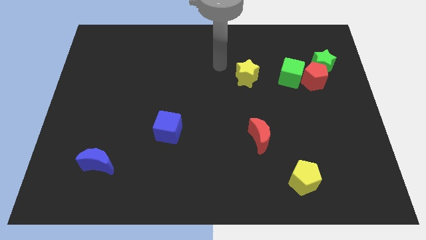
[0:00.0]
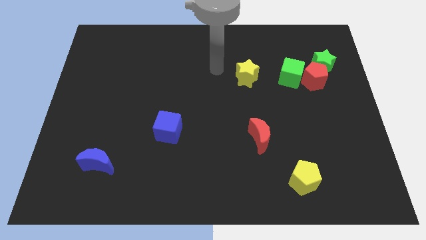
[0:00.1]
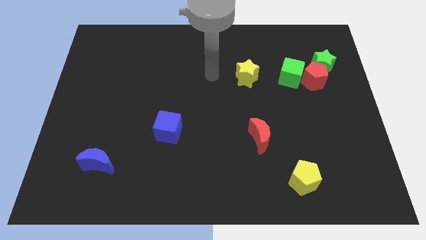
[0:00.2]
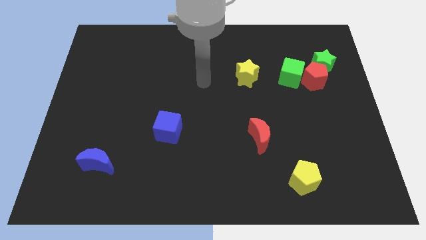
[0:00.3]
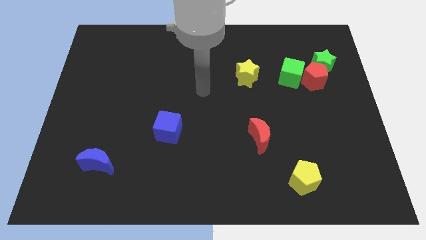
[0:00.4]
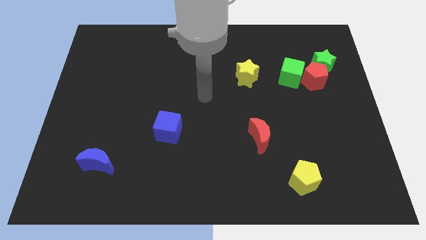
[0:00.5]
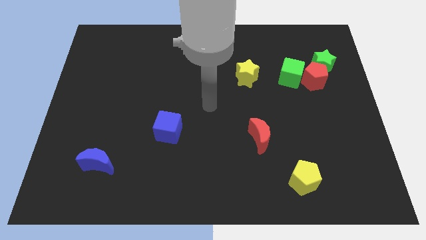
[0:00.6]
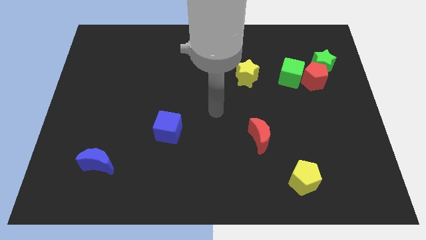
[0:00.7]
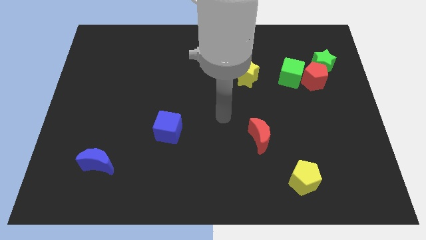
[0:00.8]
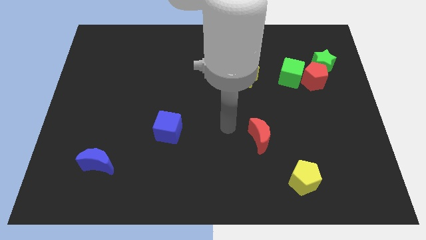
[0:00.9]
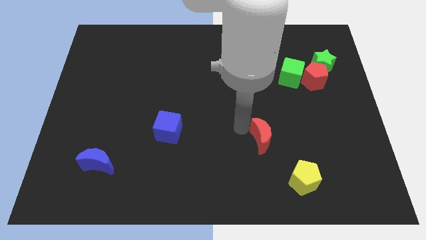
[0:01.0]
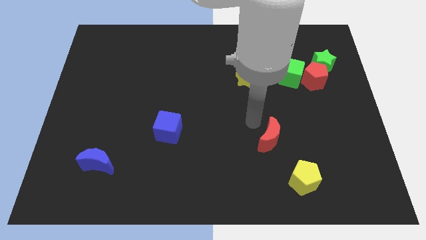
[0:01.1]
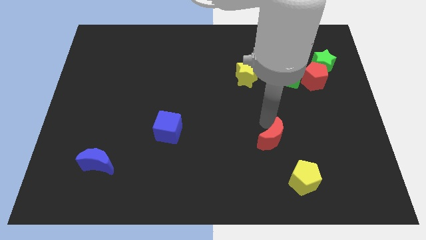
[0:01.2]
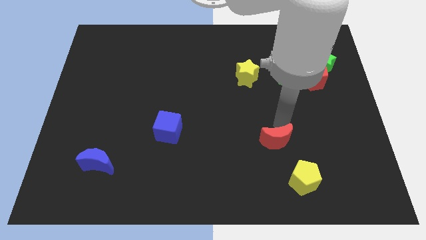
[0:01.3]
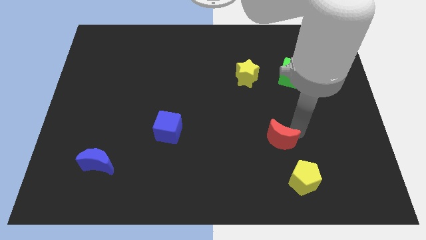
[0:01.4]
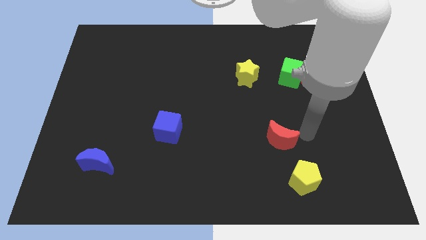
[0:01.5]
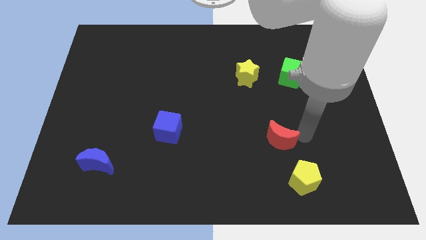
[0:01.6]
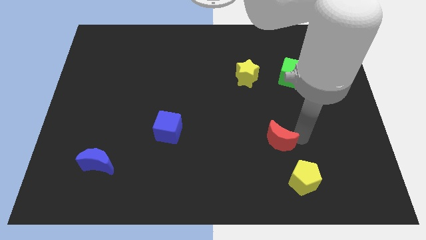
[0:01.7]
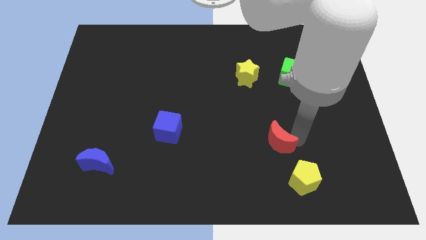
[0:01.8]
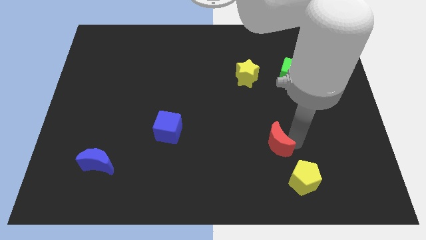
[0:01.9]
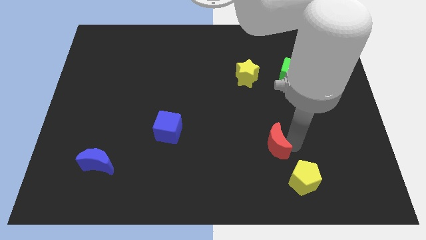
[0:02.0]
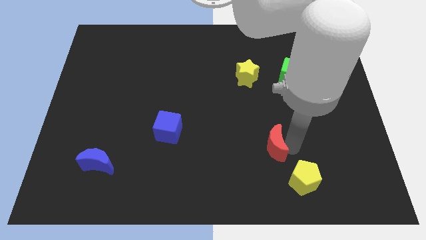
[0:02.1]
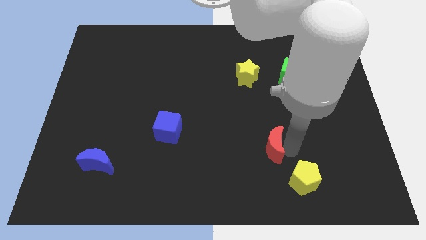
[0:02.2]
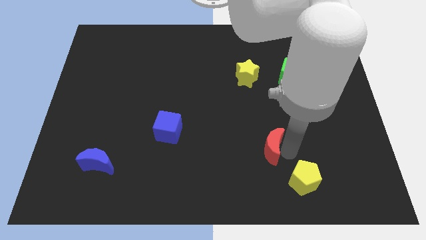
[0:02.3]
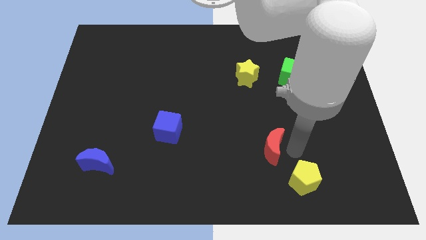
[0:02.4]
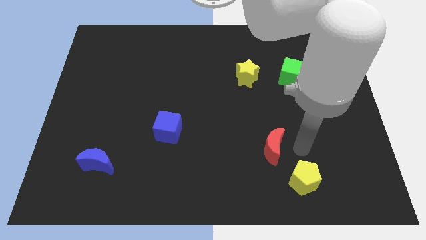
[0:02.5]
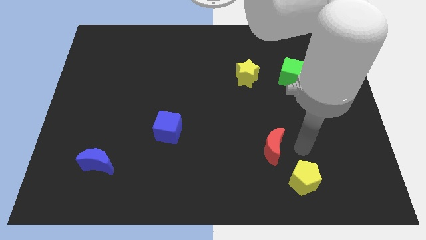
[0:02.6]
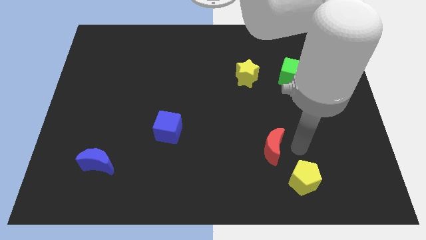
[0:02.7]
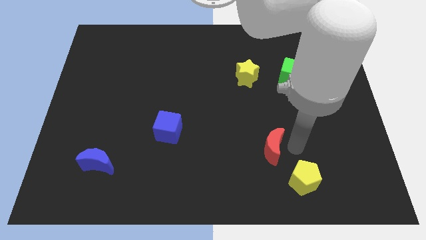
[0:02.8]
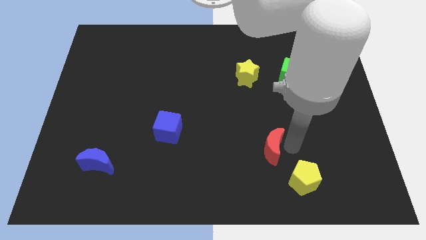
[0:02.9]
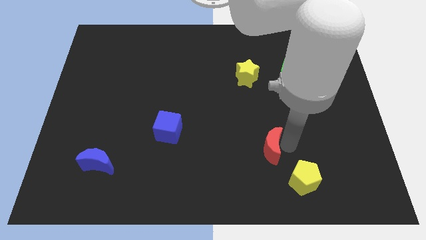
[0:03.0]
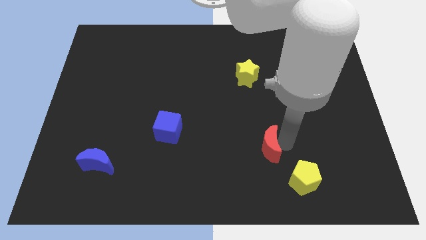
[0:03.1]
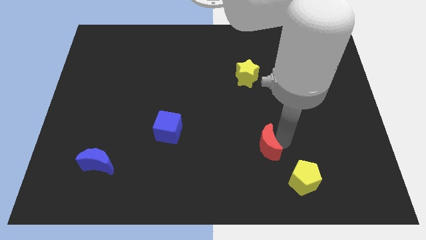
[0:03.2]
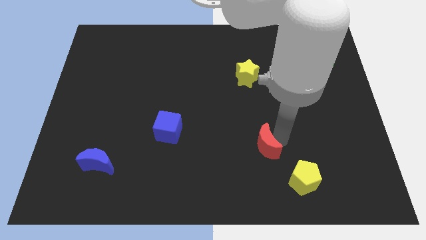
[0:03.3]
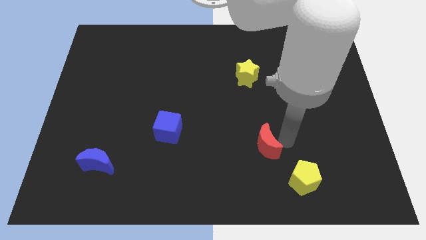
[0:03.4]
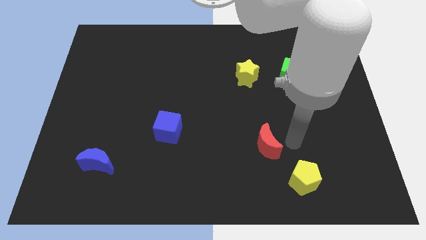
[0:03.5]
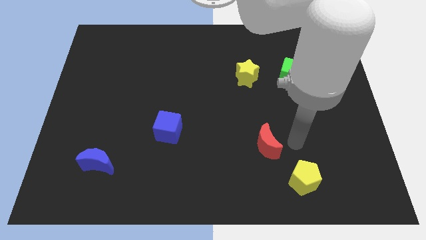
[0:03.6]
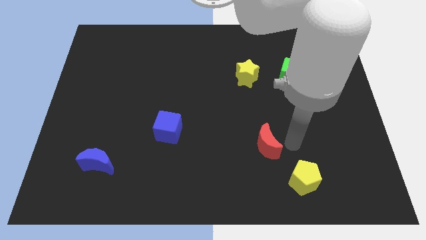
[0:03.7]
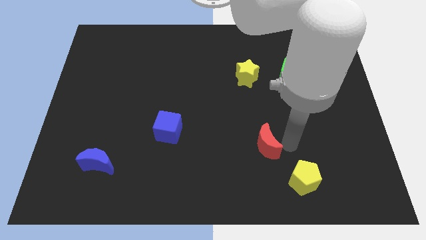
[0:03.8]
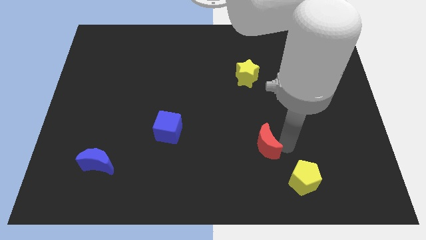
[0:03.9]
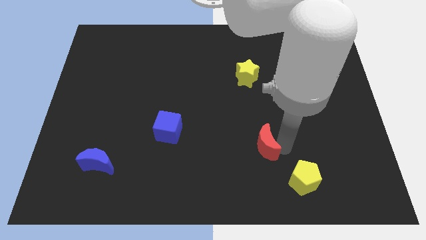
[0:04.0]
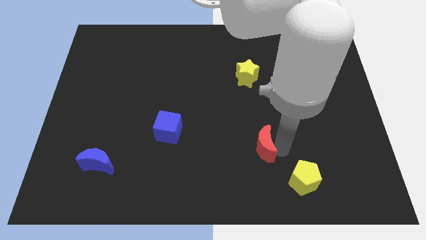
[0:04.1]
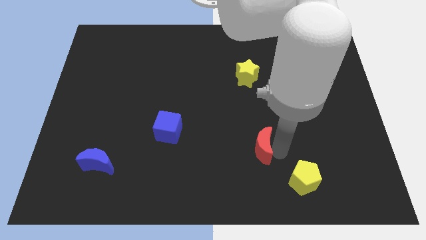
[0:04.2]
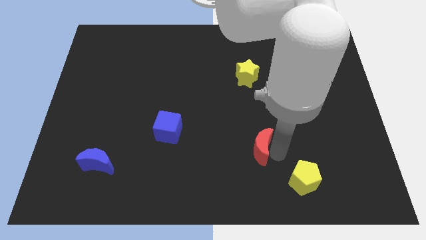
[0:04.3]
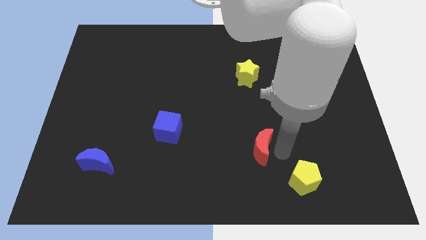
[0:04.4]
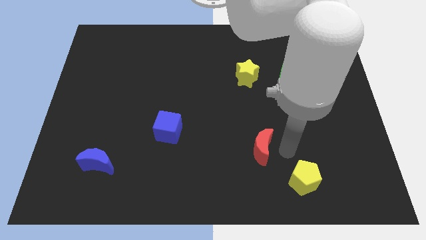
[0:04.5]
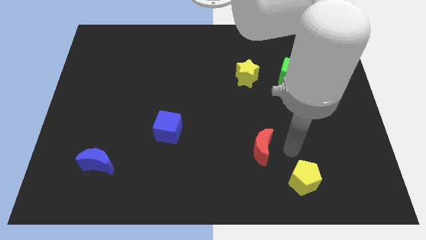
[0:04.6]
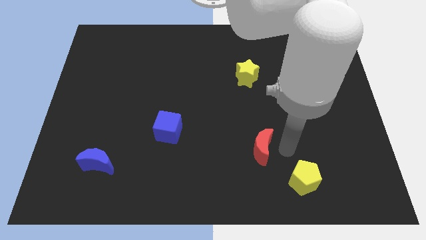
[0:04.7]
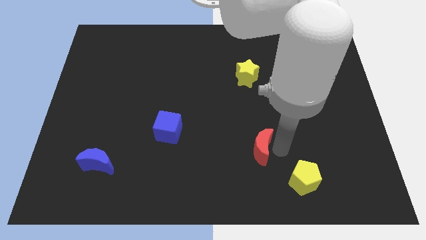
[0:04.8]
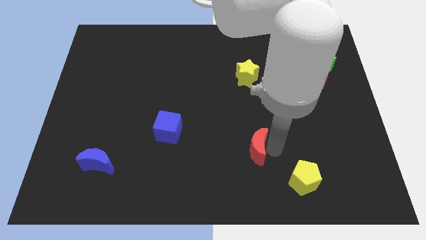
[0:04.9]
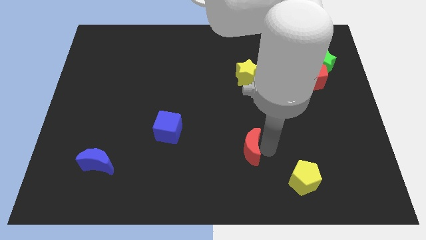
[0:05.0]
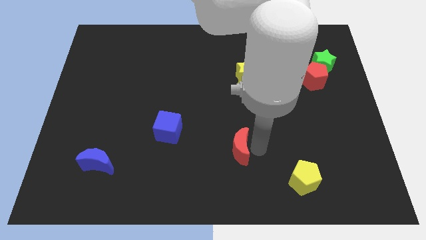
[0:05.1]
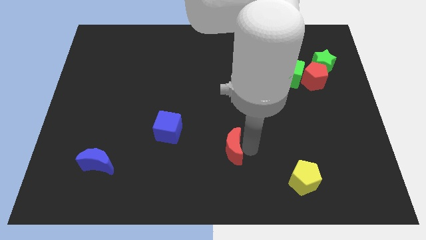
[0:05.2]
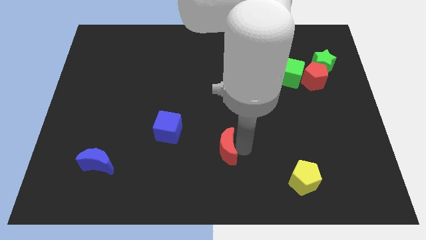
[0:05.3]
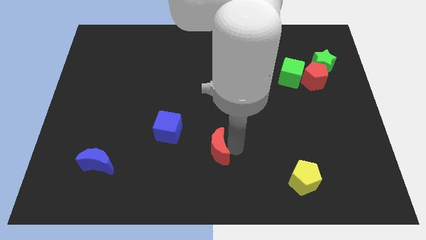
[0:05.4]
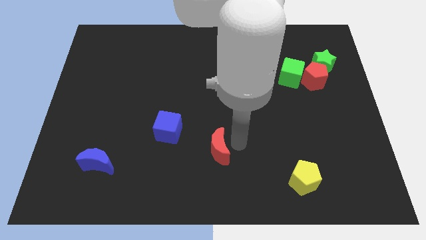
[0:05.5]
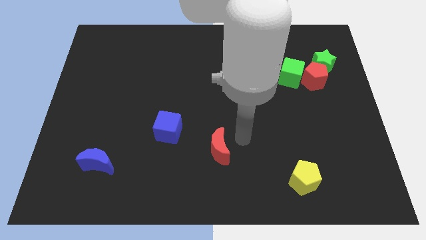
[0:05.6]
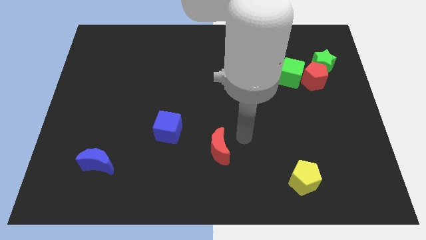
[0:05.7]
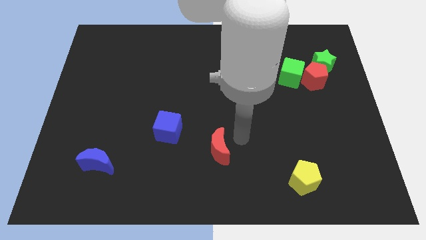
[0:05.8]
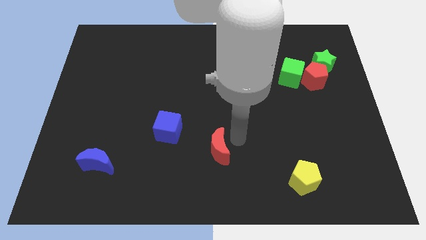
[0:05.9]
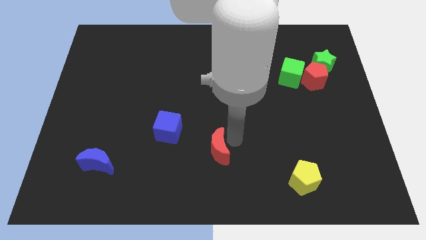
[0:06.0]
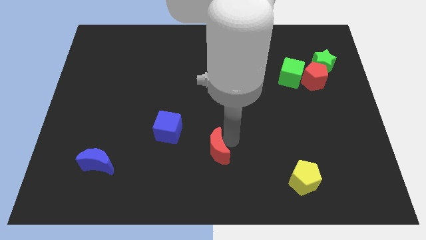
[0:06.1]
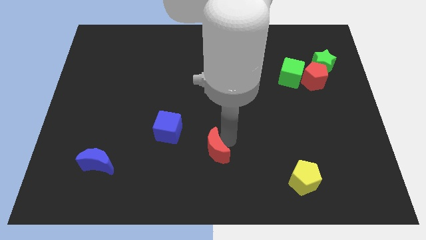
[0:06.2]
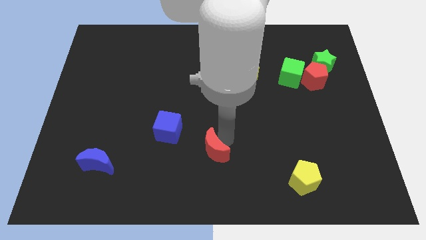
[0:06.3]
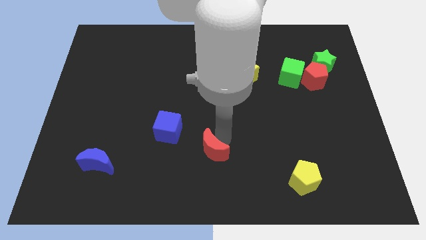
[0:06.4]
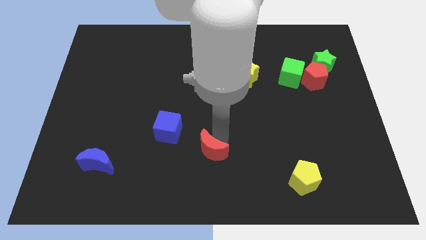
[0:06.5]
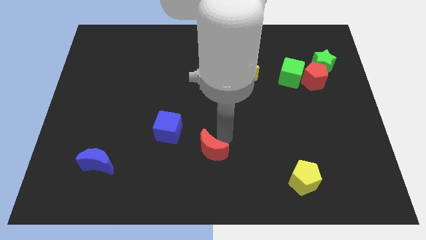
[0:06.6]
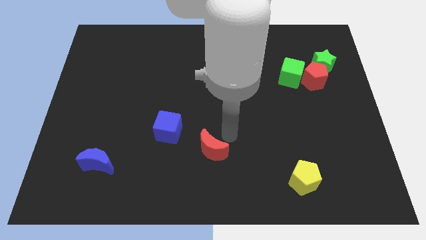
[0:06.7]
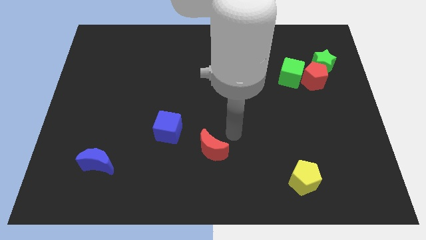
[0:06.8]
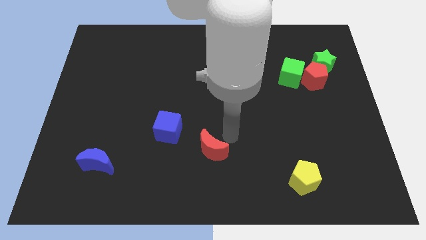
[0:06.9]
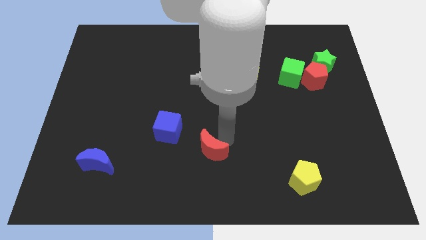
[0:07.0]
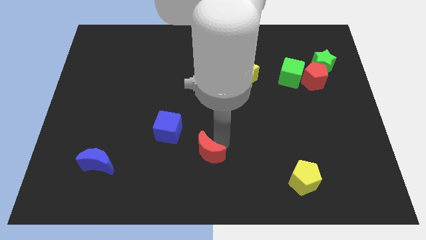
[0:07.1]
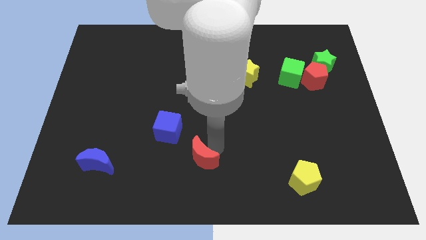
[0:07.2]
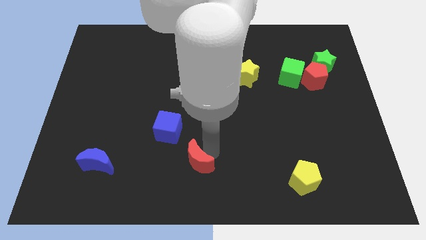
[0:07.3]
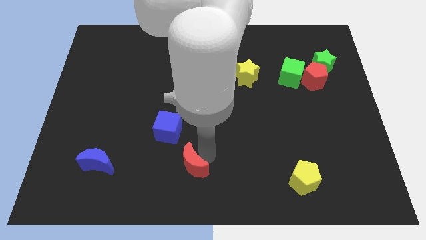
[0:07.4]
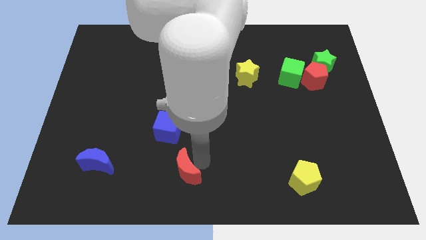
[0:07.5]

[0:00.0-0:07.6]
move the red moon to the bottom side of the blue cube

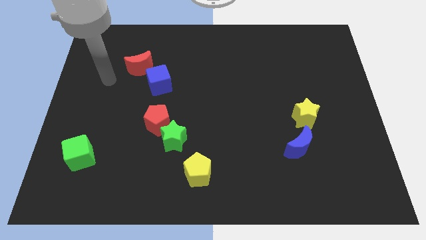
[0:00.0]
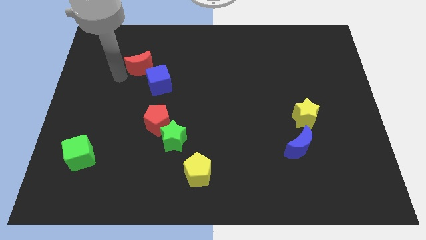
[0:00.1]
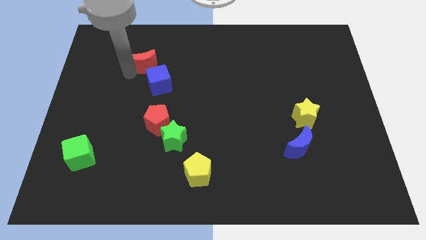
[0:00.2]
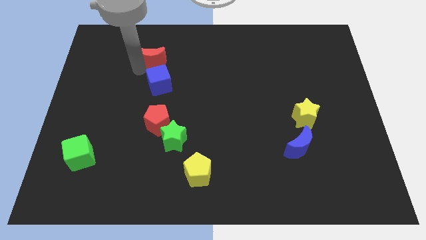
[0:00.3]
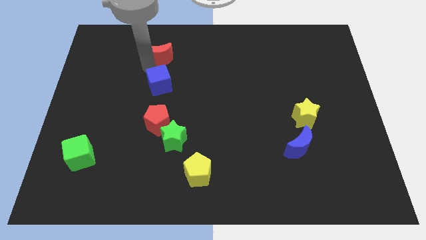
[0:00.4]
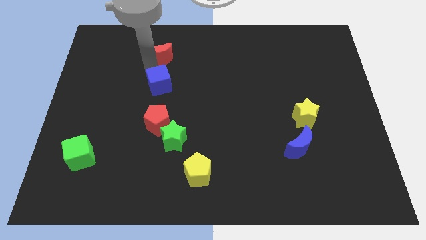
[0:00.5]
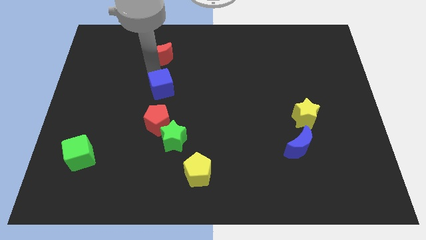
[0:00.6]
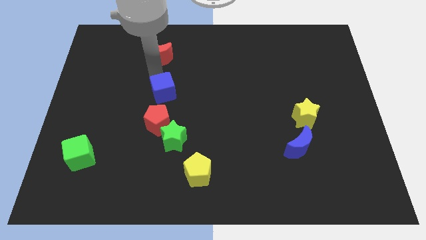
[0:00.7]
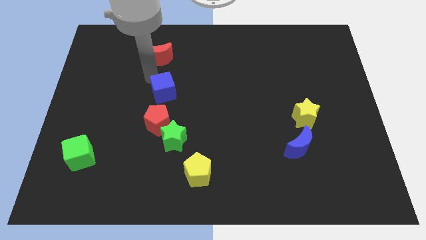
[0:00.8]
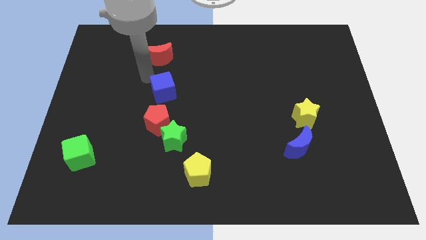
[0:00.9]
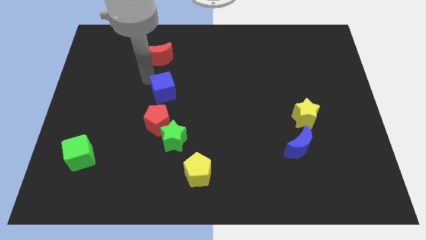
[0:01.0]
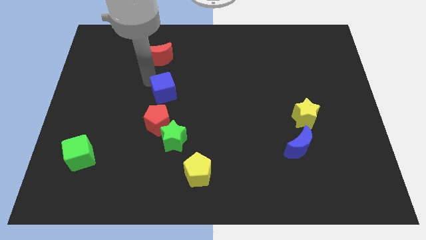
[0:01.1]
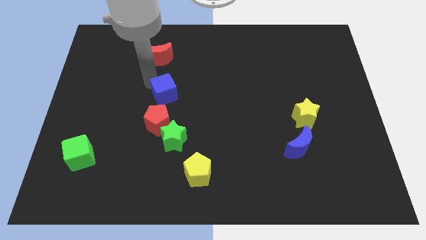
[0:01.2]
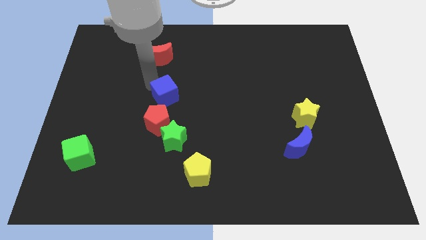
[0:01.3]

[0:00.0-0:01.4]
move the blue cube diagonally up and to the right of the red pentagon
